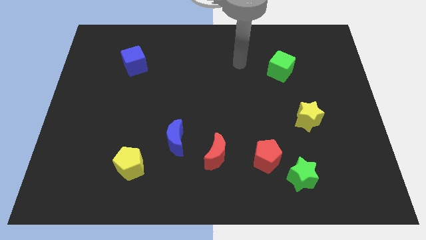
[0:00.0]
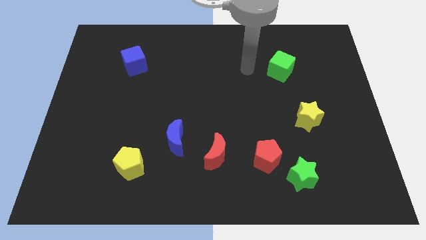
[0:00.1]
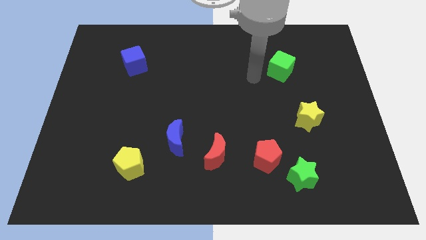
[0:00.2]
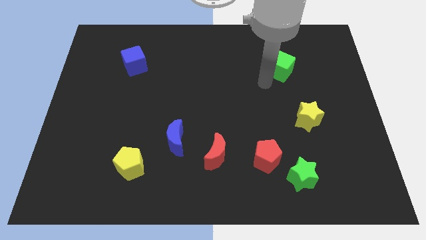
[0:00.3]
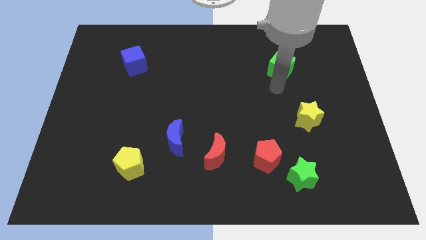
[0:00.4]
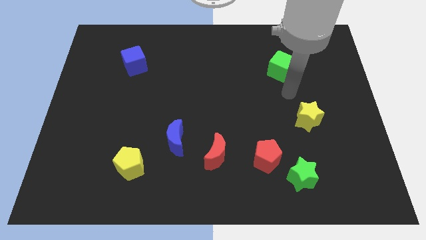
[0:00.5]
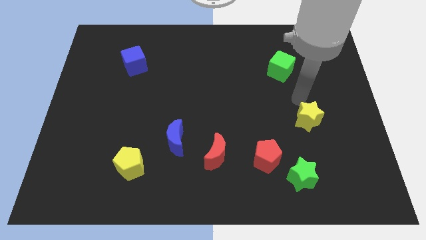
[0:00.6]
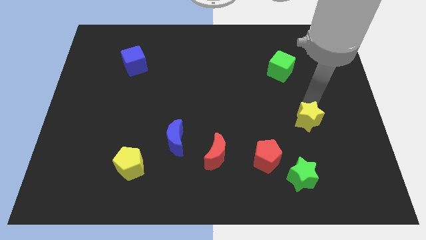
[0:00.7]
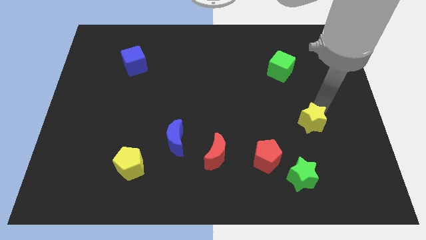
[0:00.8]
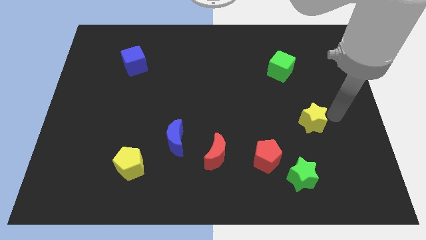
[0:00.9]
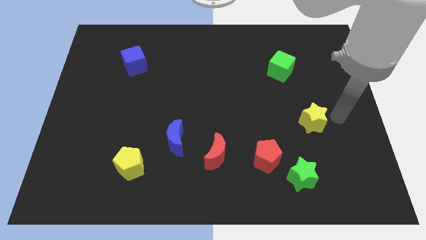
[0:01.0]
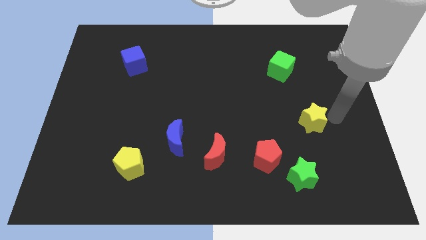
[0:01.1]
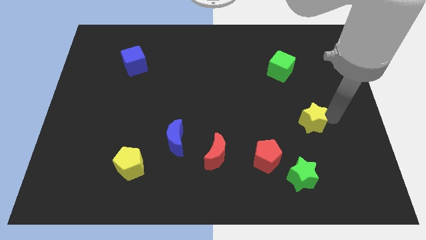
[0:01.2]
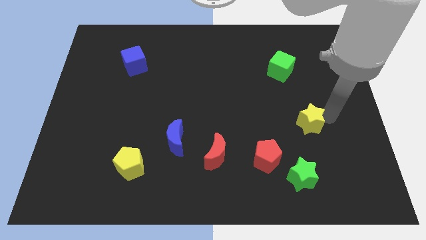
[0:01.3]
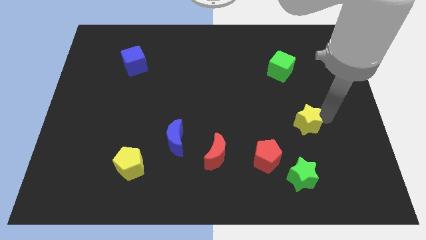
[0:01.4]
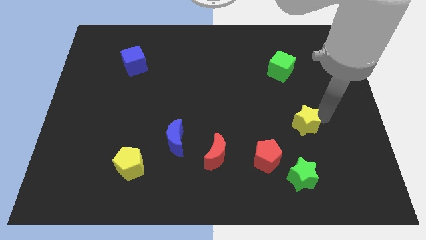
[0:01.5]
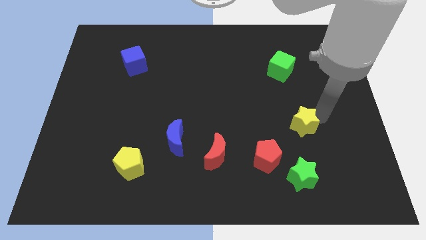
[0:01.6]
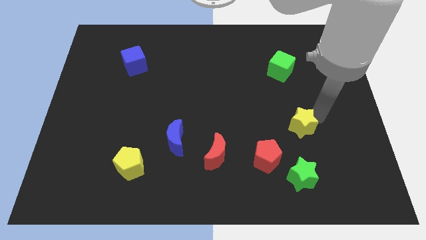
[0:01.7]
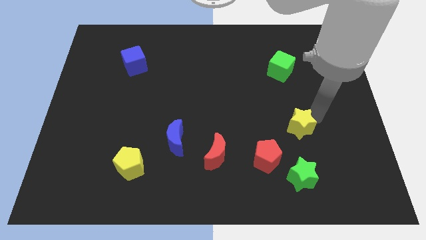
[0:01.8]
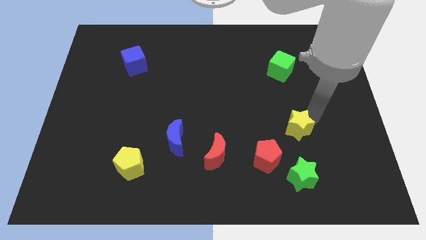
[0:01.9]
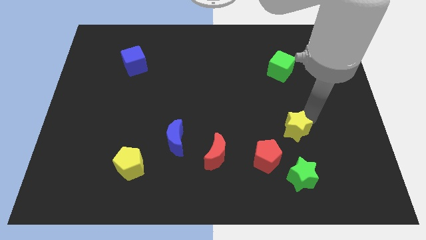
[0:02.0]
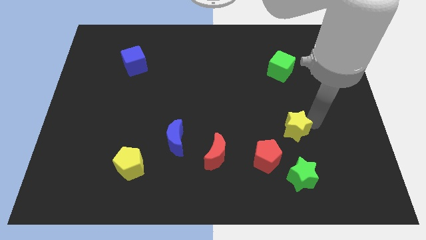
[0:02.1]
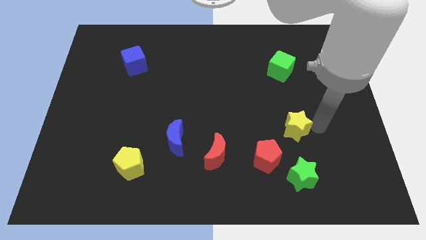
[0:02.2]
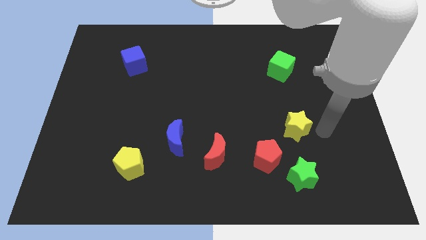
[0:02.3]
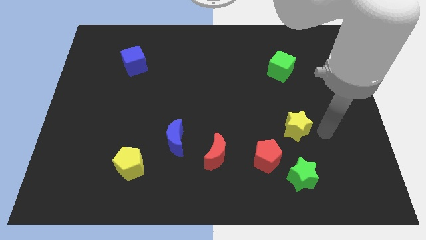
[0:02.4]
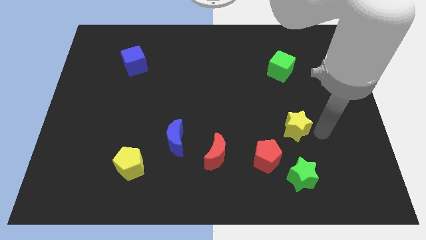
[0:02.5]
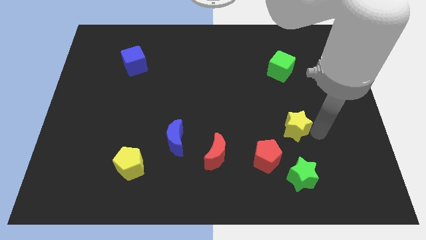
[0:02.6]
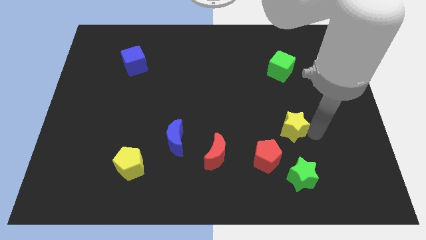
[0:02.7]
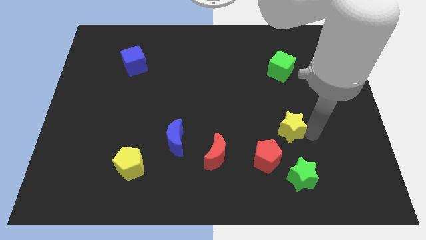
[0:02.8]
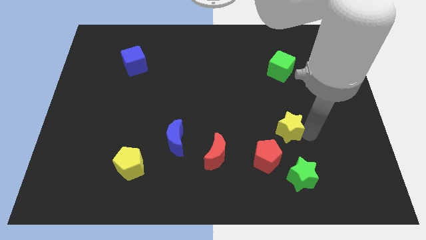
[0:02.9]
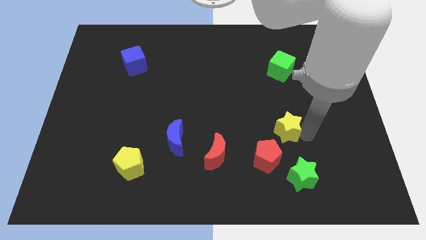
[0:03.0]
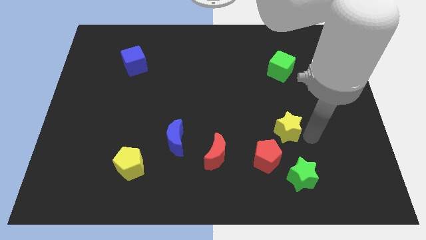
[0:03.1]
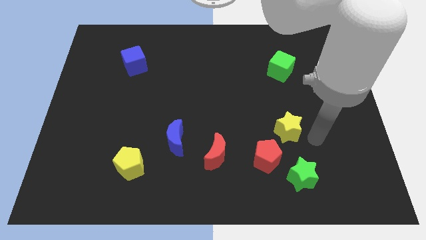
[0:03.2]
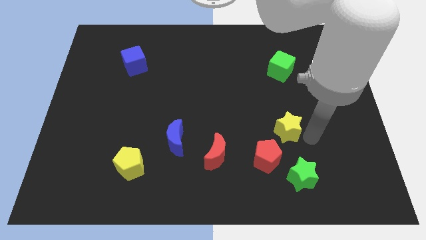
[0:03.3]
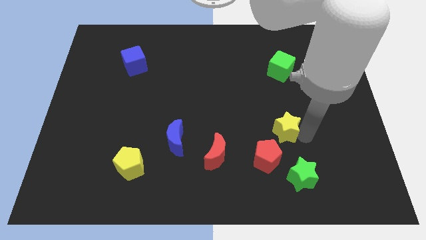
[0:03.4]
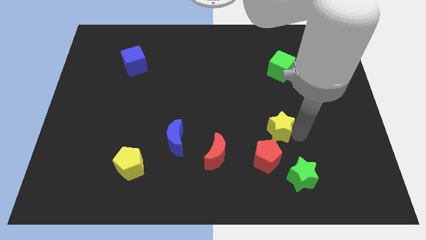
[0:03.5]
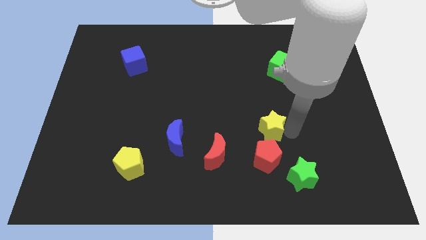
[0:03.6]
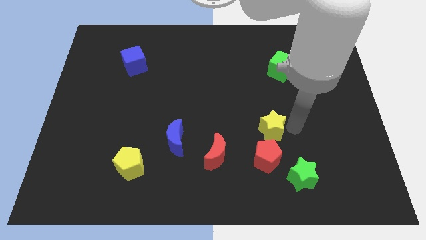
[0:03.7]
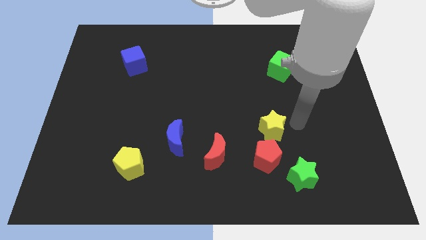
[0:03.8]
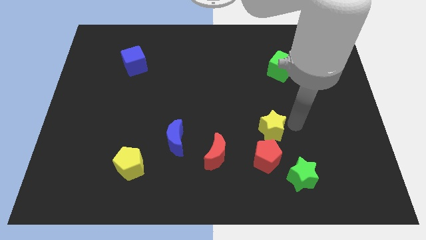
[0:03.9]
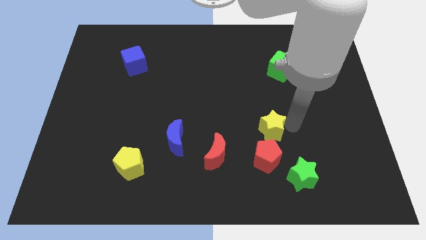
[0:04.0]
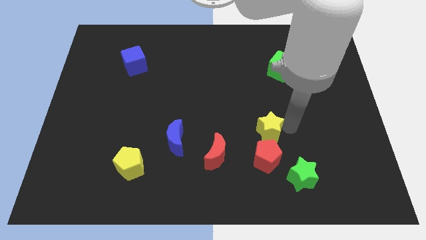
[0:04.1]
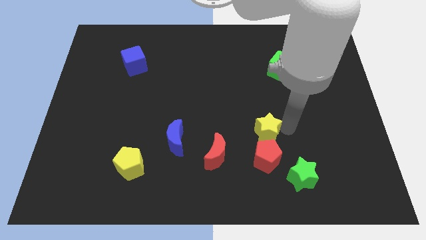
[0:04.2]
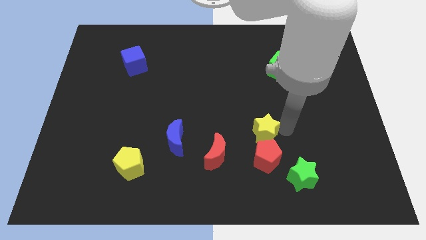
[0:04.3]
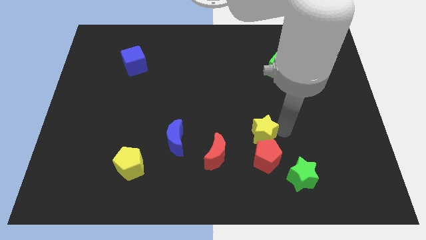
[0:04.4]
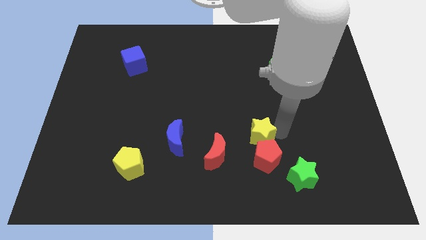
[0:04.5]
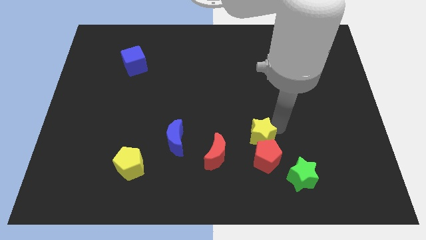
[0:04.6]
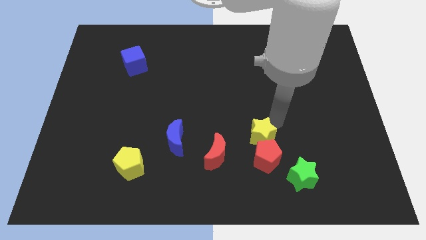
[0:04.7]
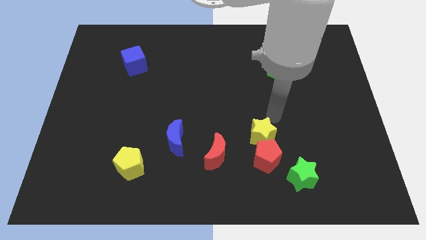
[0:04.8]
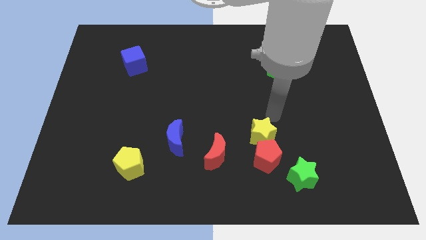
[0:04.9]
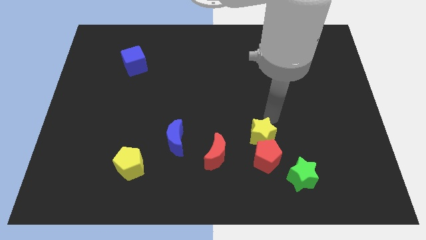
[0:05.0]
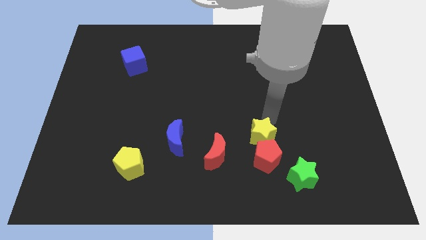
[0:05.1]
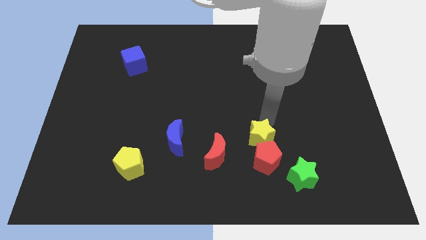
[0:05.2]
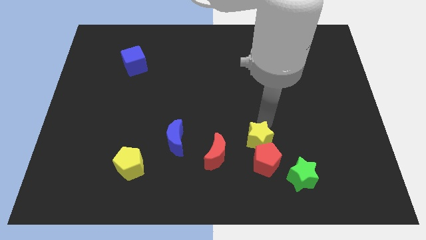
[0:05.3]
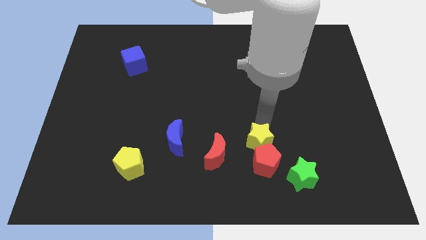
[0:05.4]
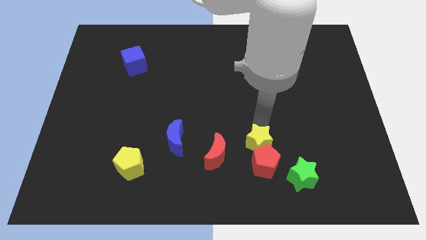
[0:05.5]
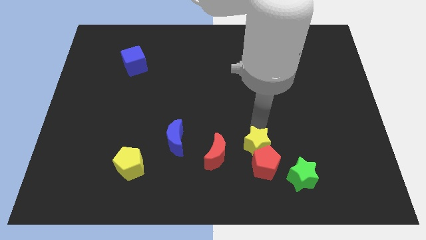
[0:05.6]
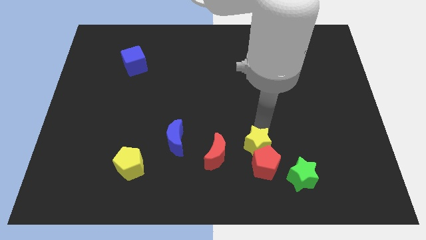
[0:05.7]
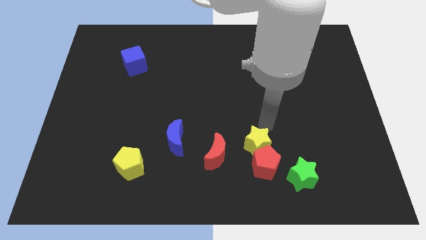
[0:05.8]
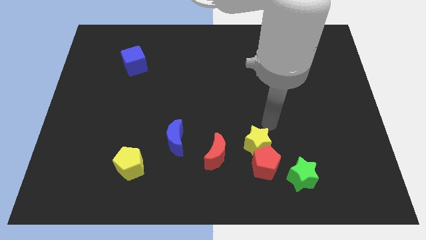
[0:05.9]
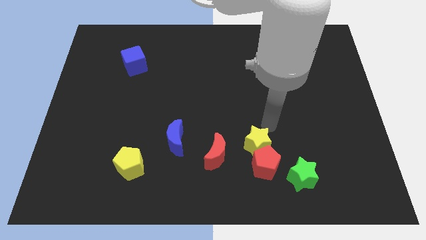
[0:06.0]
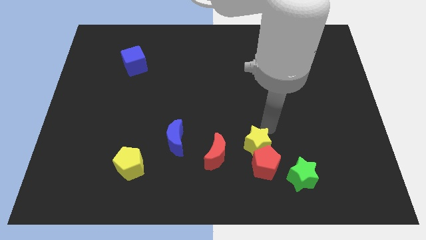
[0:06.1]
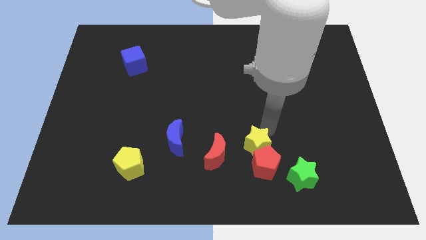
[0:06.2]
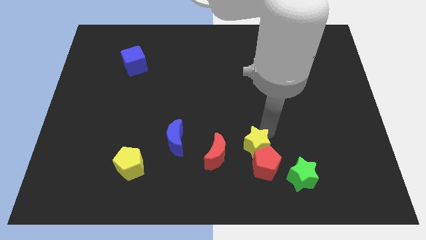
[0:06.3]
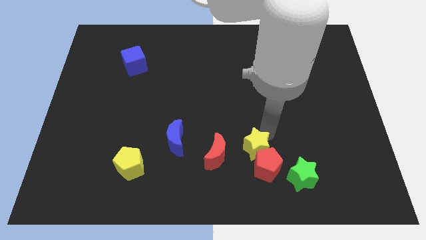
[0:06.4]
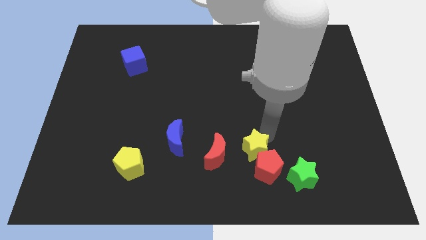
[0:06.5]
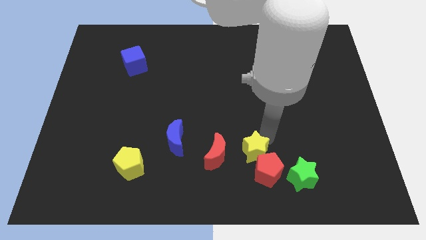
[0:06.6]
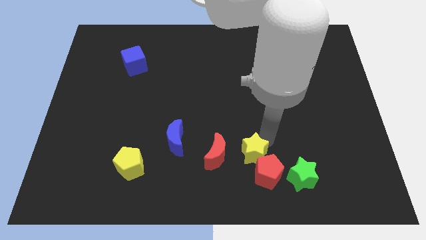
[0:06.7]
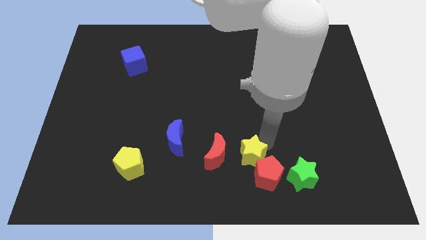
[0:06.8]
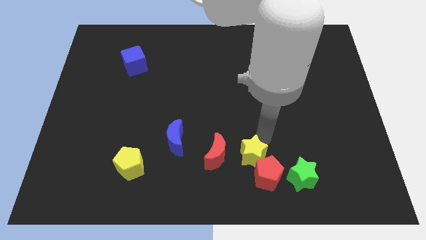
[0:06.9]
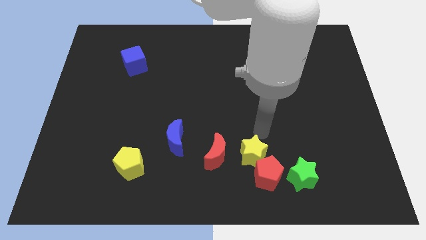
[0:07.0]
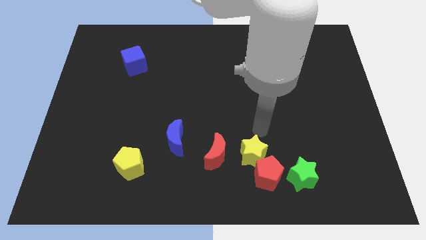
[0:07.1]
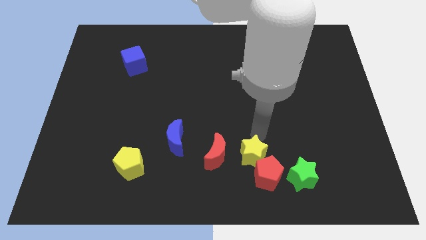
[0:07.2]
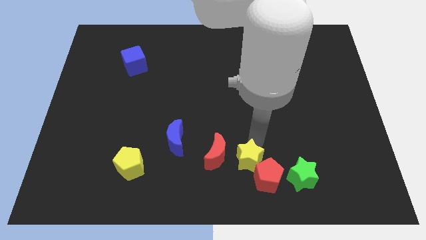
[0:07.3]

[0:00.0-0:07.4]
slide the yellow star to the bottom right side of the red moon

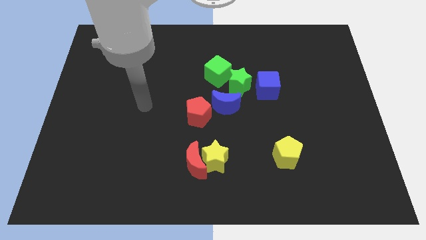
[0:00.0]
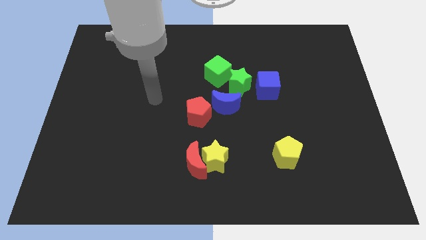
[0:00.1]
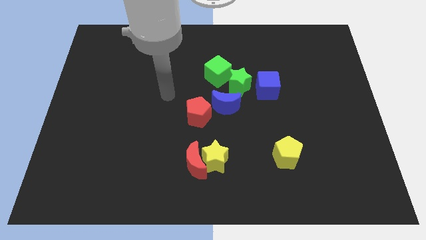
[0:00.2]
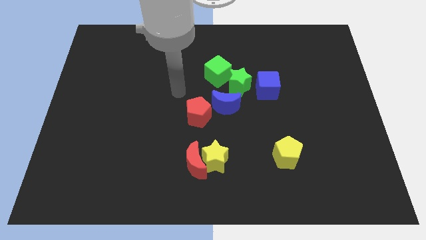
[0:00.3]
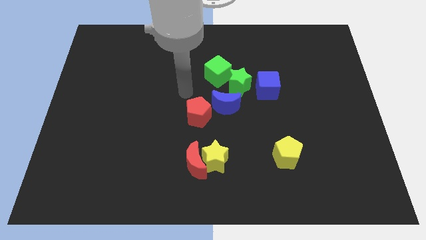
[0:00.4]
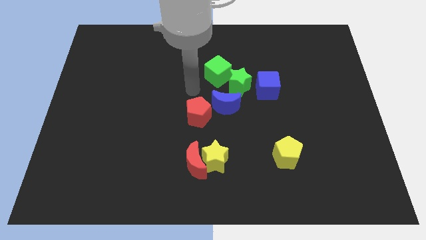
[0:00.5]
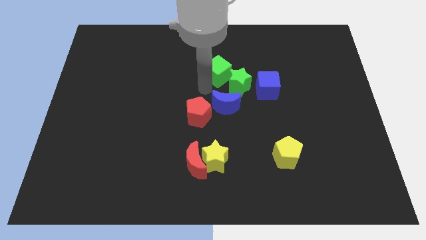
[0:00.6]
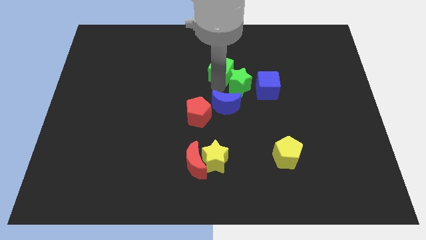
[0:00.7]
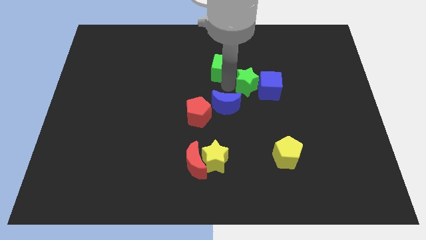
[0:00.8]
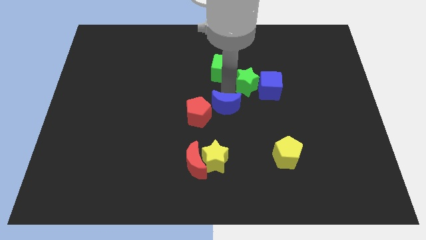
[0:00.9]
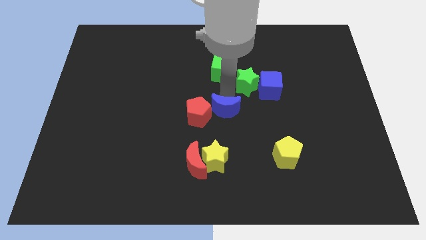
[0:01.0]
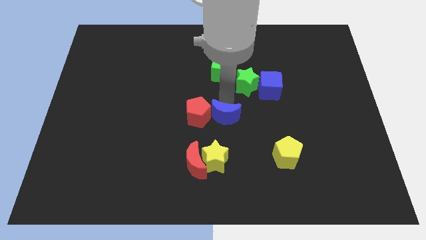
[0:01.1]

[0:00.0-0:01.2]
push the blue moon to the bottom right side of the red pentagon
